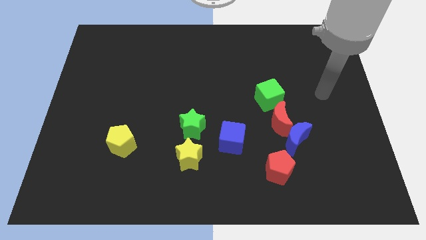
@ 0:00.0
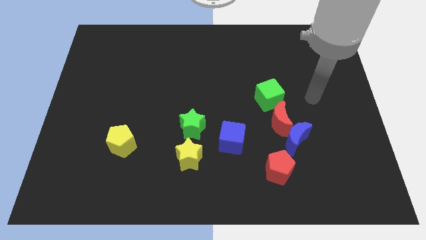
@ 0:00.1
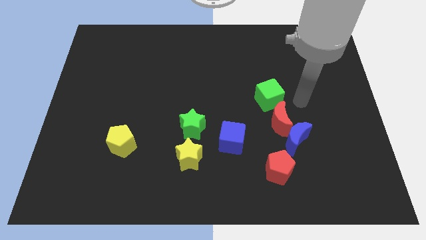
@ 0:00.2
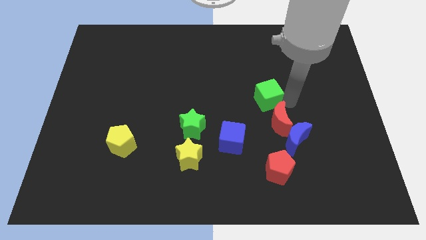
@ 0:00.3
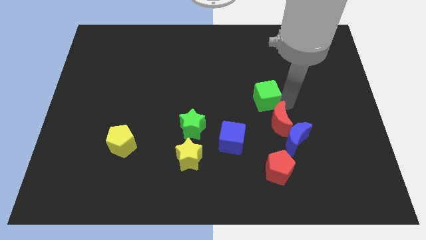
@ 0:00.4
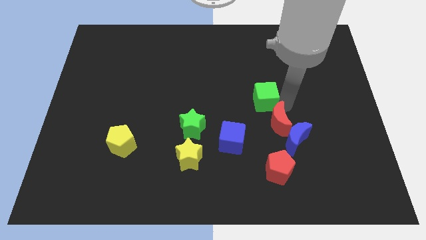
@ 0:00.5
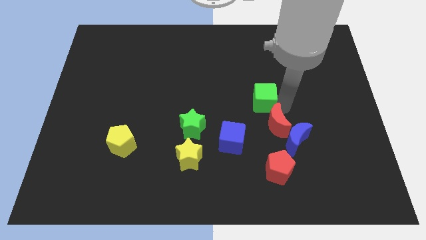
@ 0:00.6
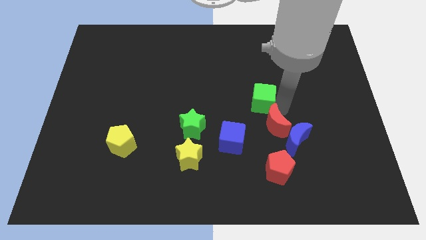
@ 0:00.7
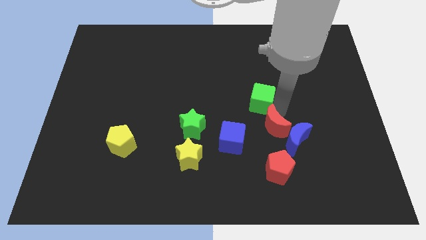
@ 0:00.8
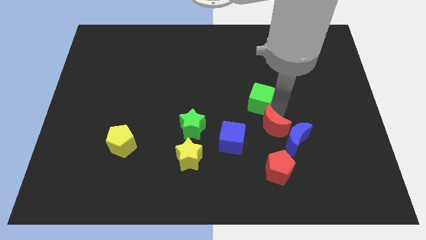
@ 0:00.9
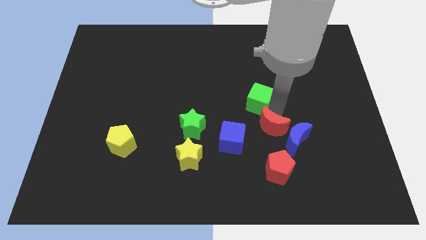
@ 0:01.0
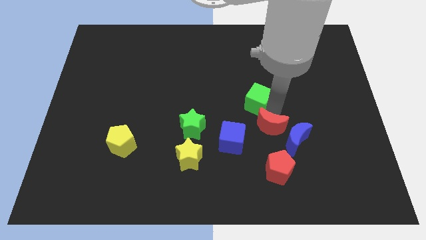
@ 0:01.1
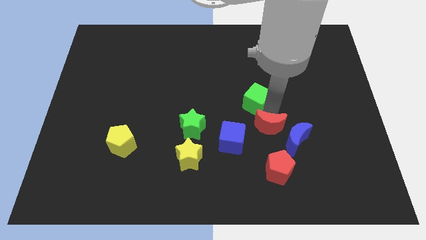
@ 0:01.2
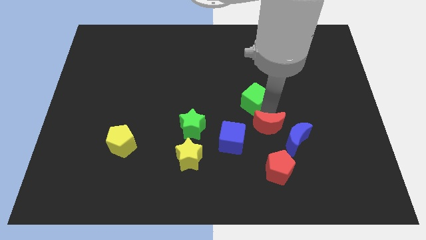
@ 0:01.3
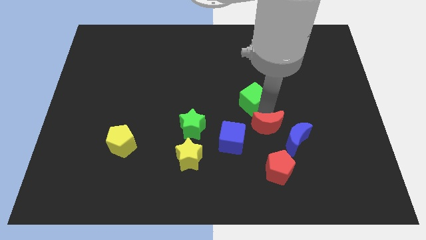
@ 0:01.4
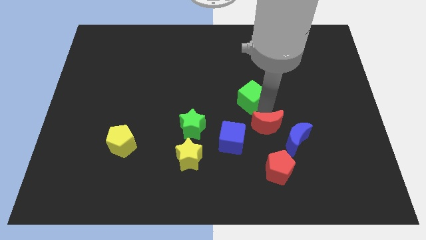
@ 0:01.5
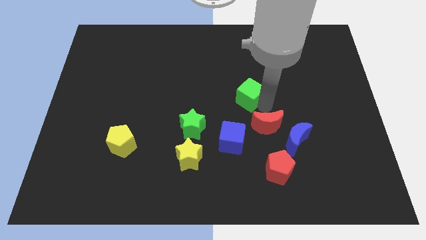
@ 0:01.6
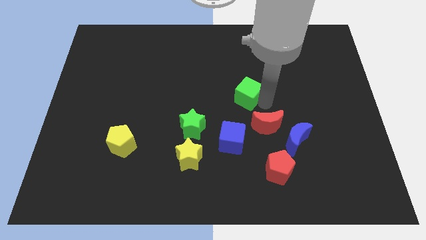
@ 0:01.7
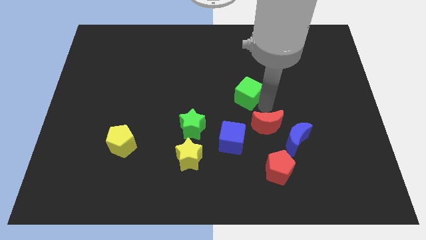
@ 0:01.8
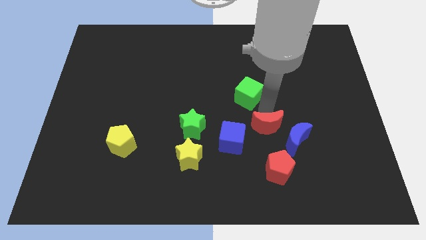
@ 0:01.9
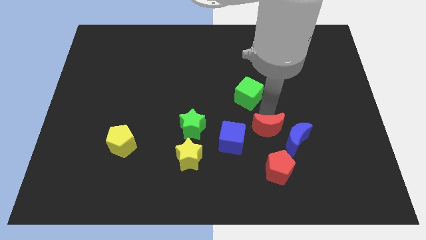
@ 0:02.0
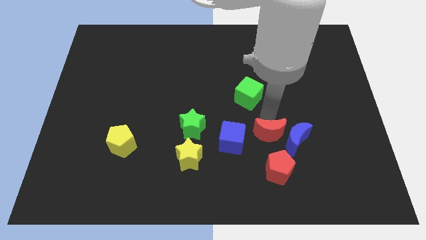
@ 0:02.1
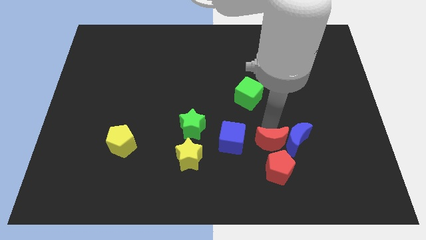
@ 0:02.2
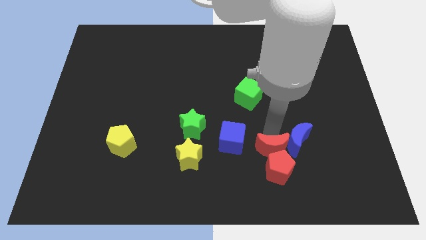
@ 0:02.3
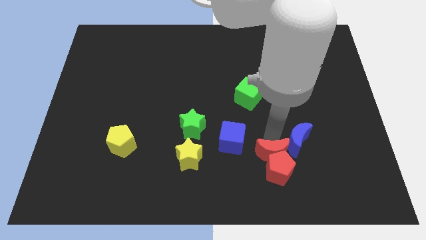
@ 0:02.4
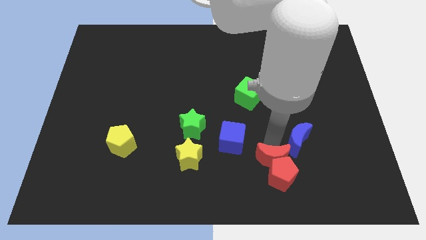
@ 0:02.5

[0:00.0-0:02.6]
separate the red moon from the blue moon and green cube

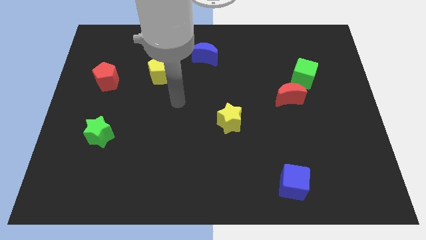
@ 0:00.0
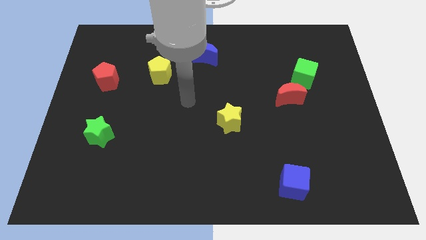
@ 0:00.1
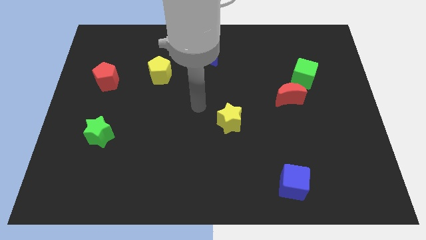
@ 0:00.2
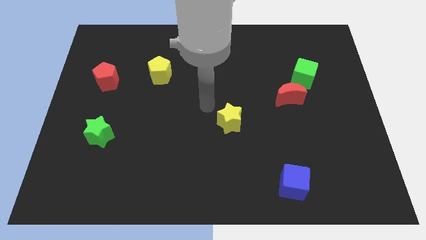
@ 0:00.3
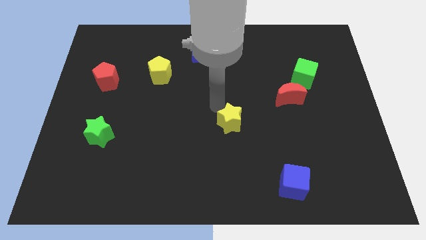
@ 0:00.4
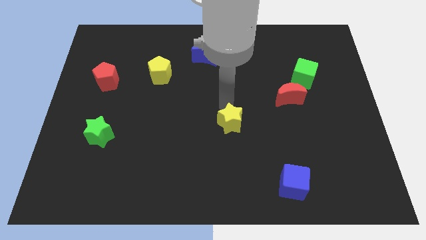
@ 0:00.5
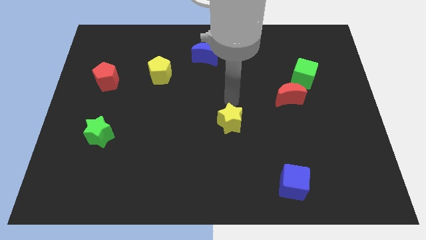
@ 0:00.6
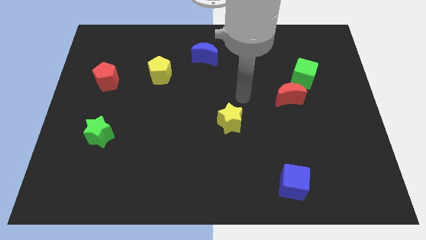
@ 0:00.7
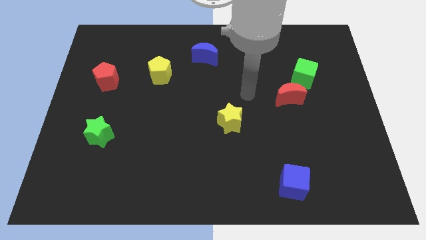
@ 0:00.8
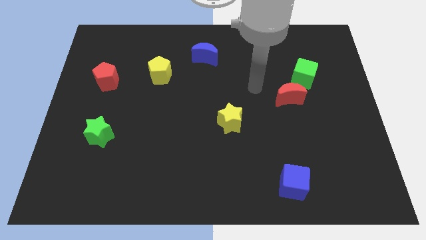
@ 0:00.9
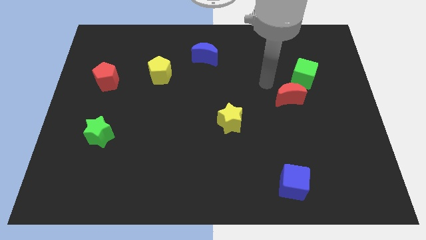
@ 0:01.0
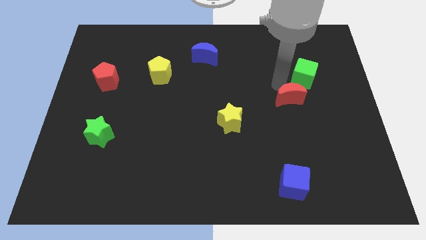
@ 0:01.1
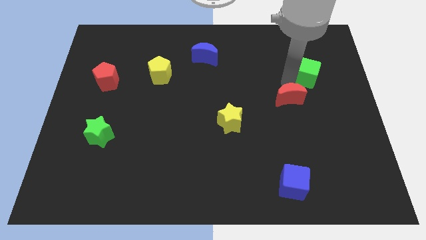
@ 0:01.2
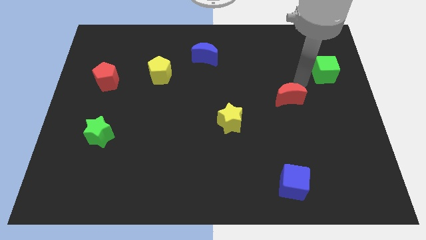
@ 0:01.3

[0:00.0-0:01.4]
pull the red moon apart from the green cube

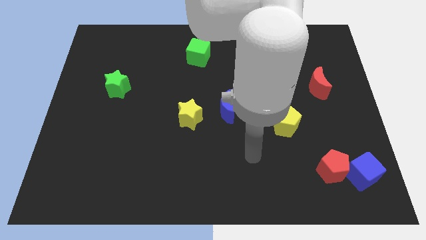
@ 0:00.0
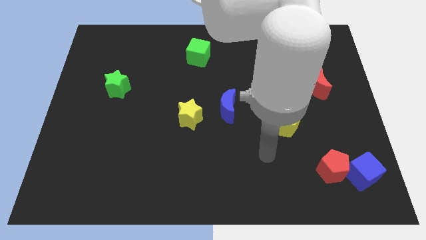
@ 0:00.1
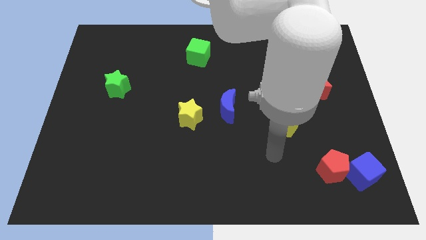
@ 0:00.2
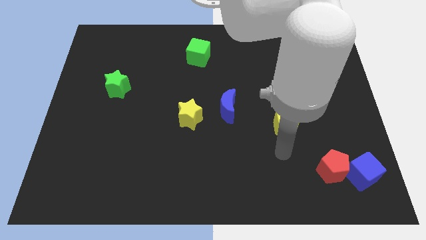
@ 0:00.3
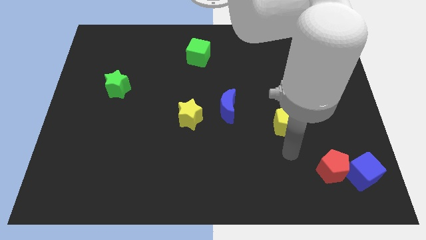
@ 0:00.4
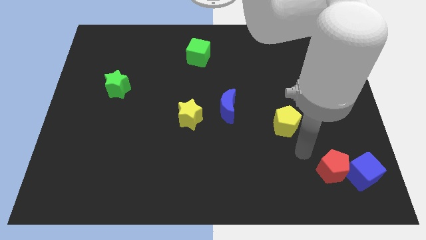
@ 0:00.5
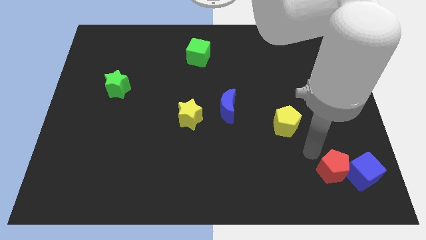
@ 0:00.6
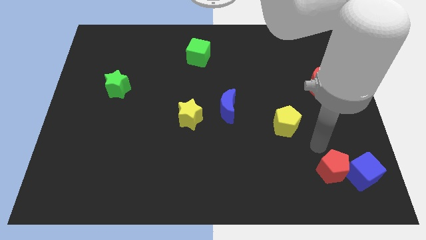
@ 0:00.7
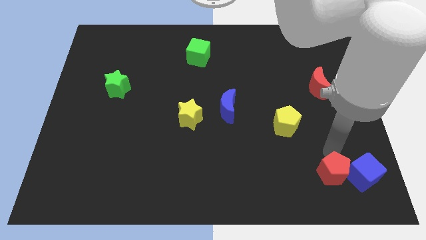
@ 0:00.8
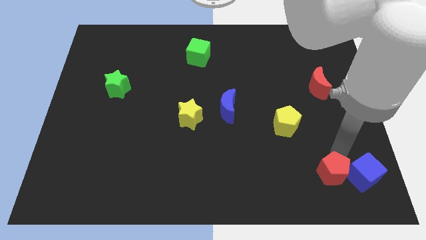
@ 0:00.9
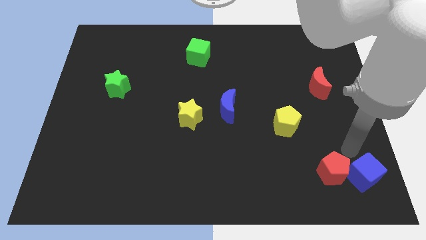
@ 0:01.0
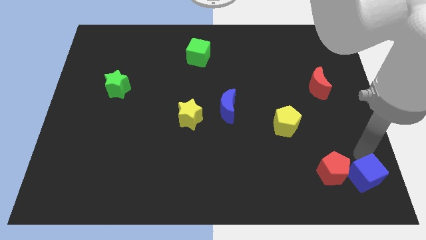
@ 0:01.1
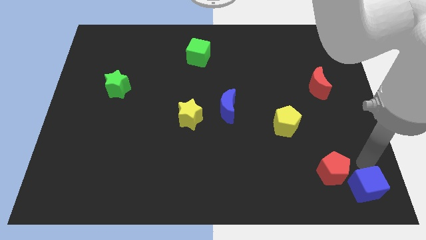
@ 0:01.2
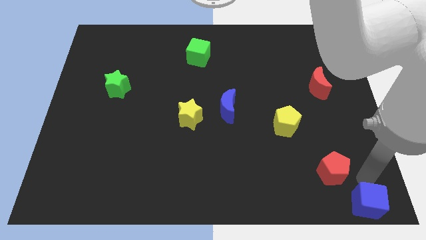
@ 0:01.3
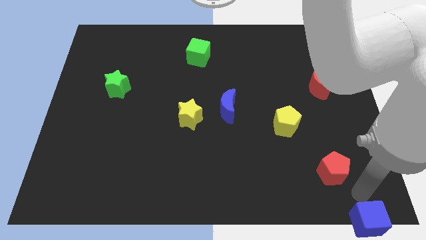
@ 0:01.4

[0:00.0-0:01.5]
separate the red pentagon from the blue cube

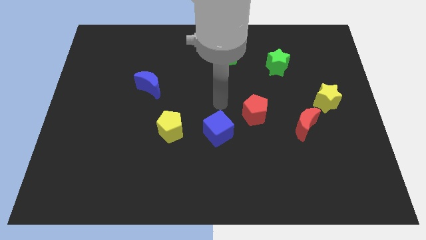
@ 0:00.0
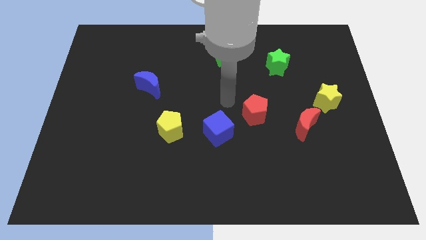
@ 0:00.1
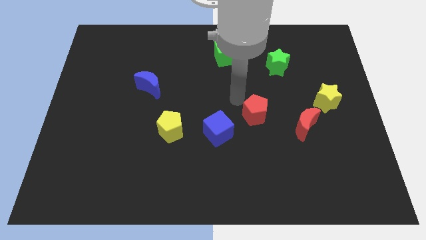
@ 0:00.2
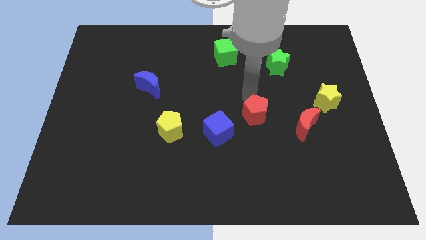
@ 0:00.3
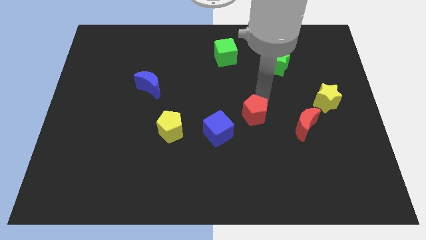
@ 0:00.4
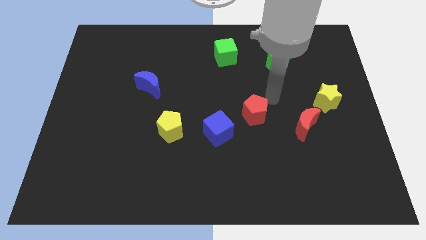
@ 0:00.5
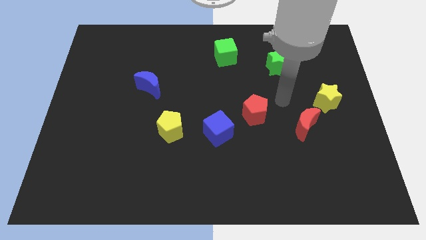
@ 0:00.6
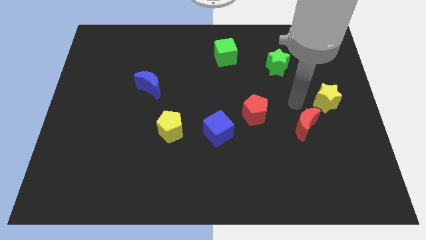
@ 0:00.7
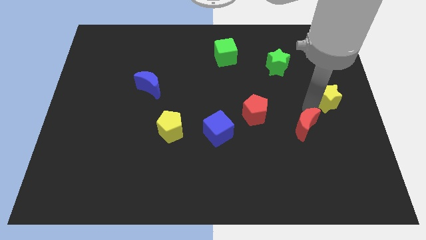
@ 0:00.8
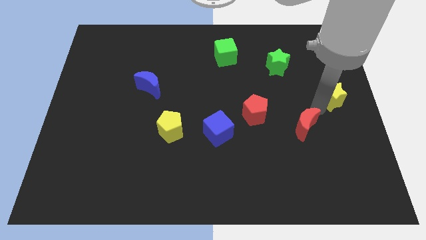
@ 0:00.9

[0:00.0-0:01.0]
separate the red moon from the yellow star

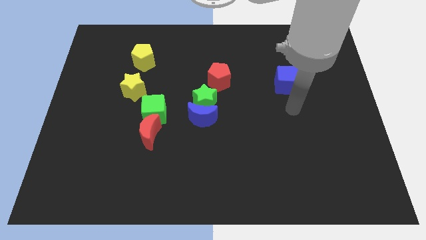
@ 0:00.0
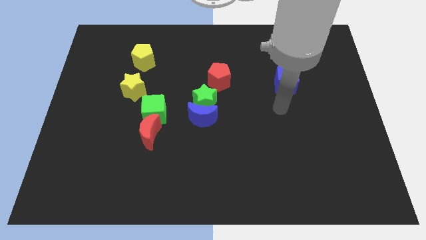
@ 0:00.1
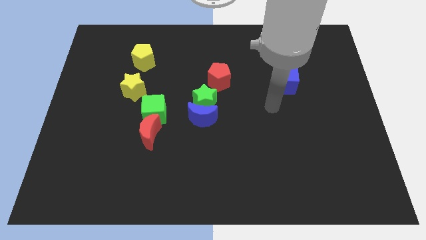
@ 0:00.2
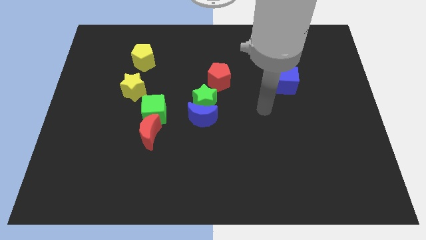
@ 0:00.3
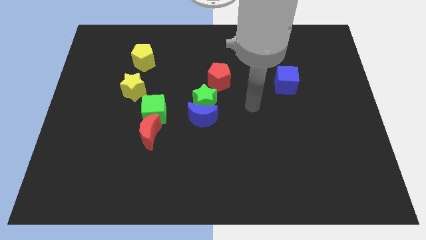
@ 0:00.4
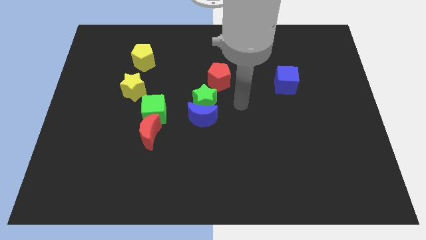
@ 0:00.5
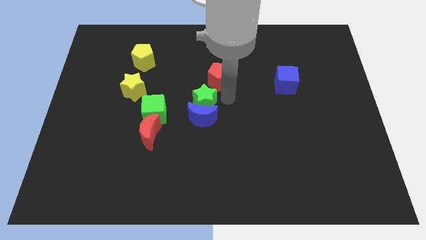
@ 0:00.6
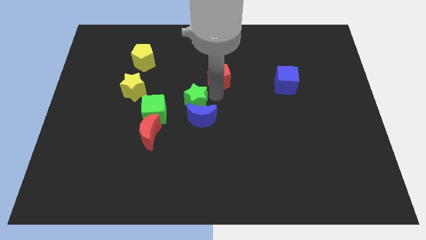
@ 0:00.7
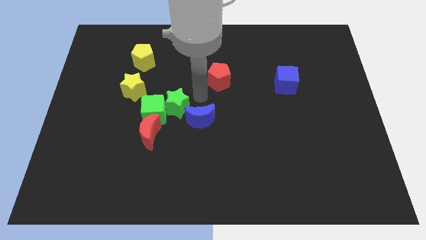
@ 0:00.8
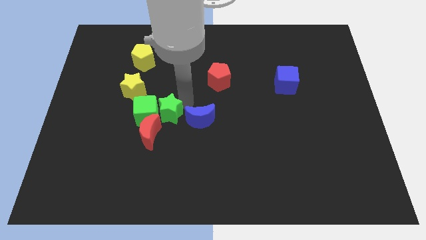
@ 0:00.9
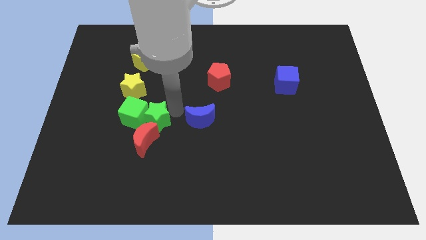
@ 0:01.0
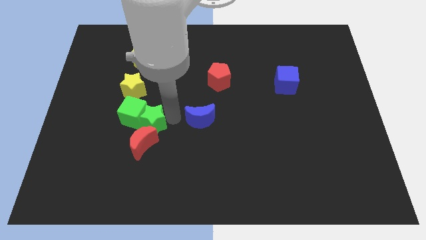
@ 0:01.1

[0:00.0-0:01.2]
separate the blue moon from the green star

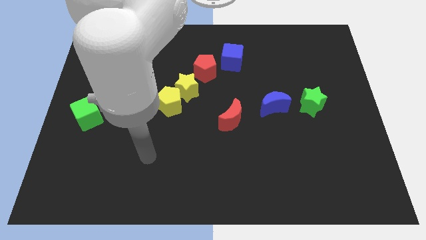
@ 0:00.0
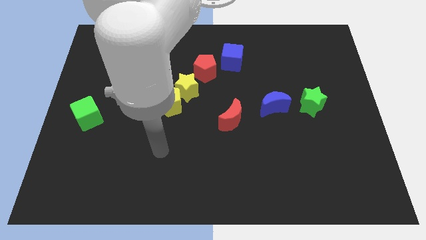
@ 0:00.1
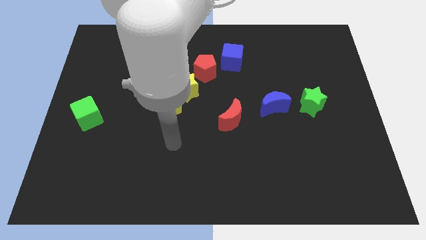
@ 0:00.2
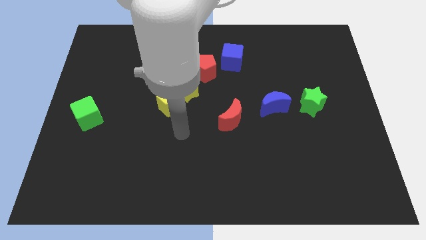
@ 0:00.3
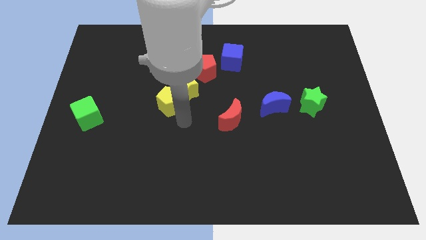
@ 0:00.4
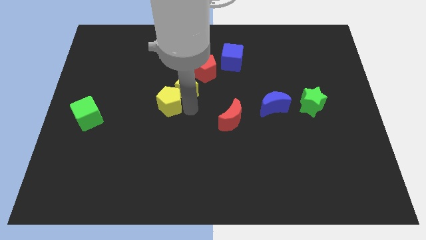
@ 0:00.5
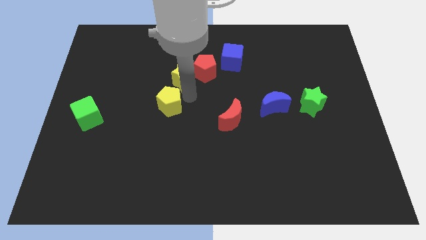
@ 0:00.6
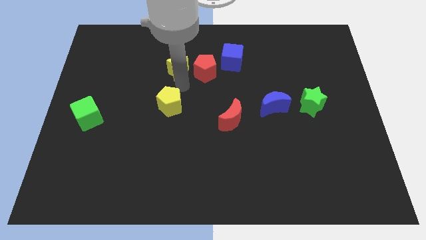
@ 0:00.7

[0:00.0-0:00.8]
pull the yellow pentagon apart from the yellow star

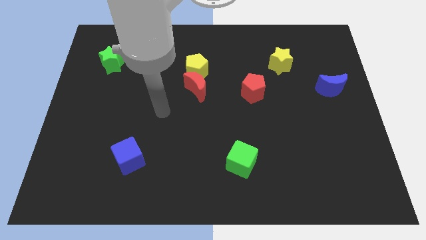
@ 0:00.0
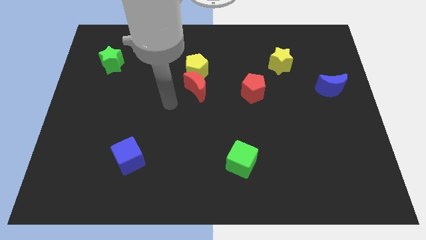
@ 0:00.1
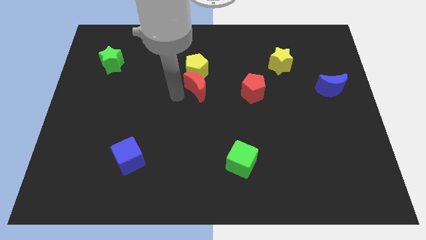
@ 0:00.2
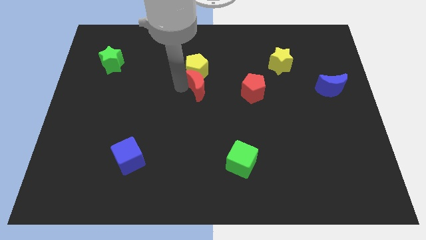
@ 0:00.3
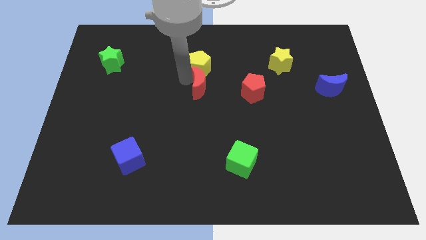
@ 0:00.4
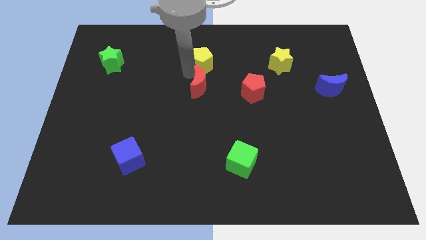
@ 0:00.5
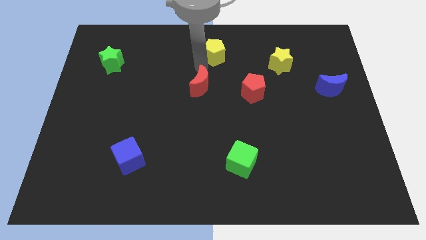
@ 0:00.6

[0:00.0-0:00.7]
pull the red moon apart from the yellow pentagon
